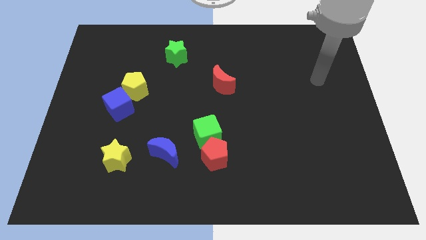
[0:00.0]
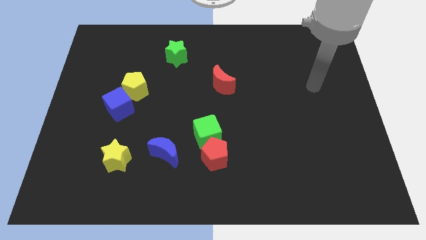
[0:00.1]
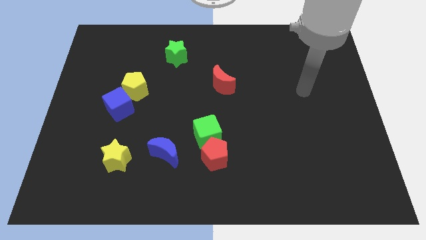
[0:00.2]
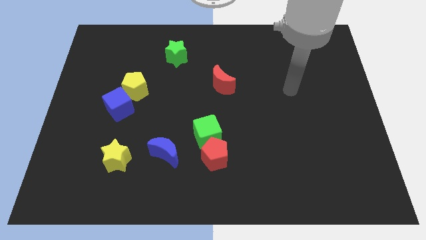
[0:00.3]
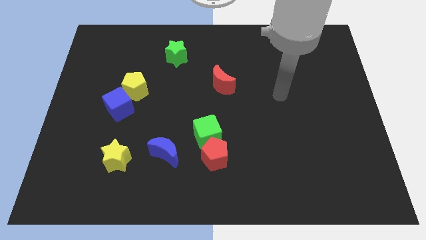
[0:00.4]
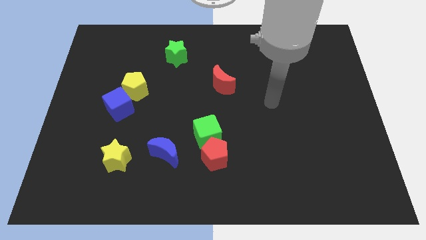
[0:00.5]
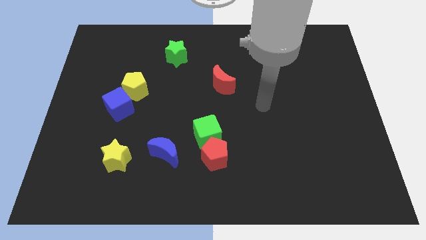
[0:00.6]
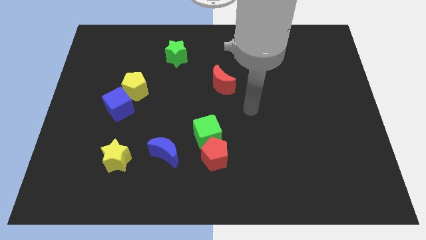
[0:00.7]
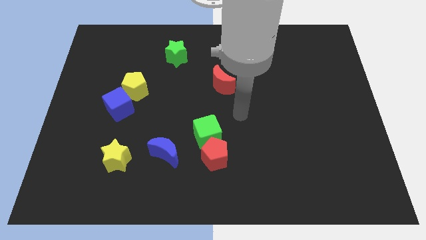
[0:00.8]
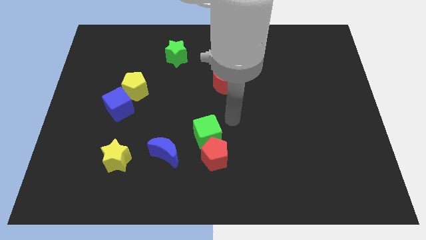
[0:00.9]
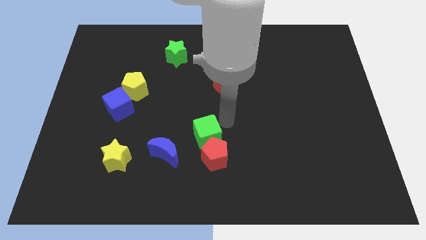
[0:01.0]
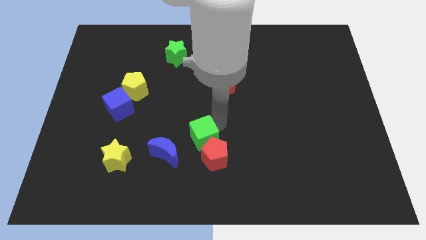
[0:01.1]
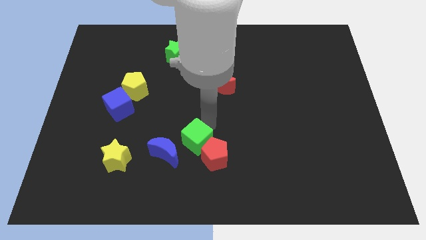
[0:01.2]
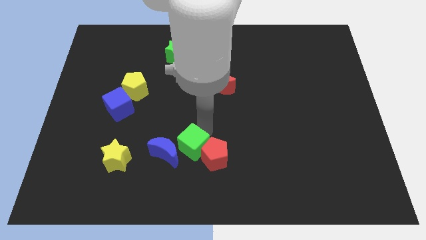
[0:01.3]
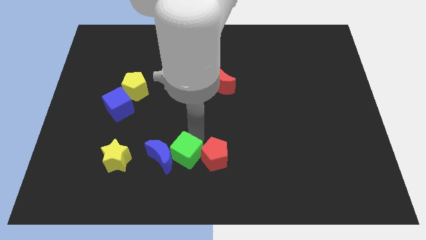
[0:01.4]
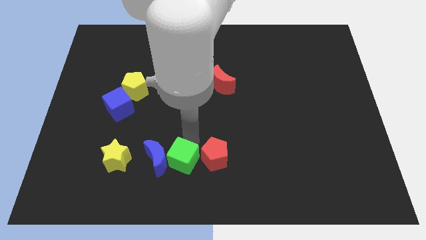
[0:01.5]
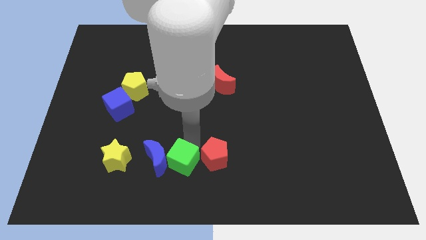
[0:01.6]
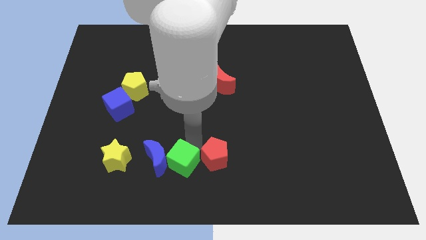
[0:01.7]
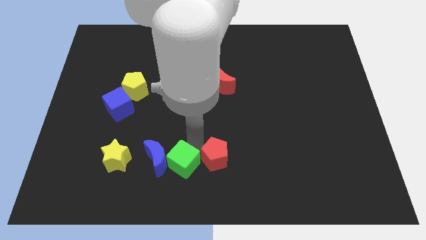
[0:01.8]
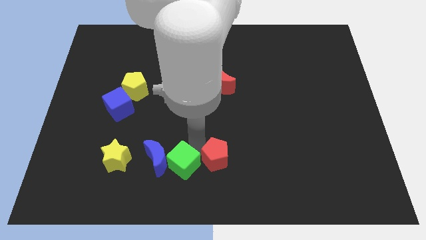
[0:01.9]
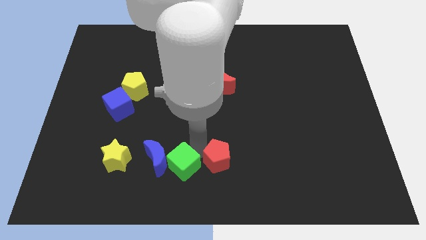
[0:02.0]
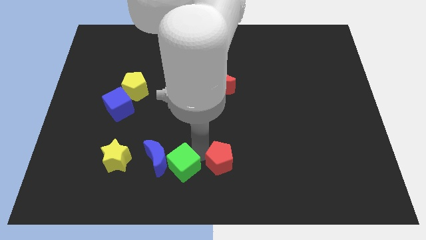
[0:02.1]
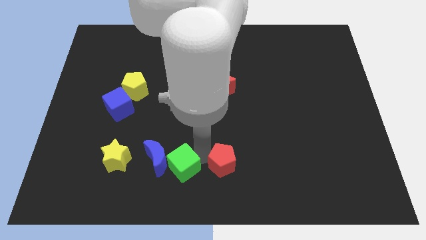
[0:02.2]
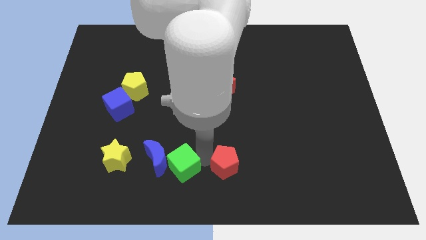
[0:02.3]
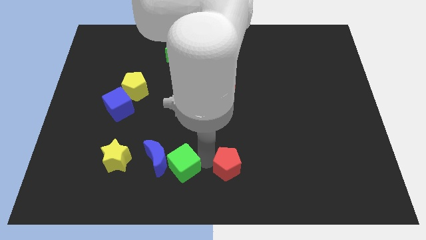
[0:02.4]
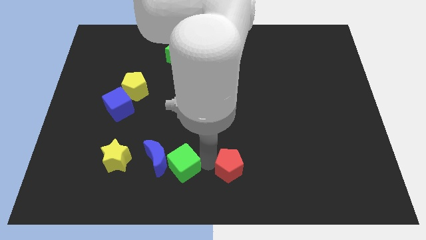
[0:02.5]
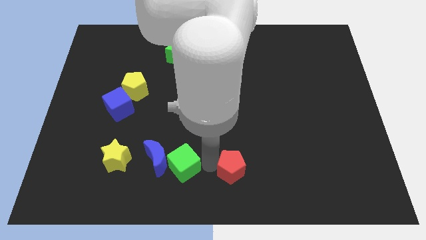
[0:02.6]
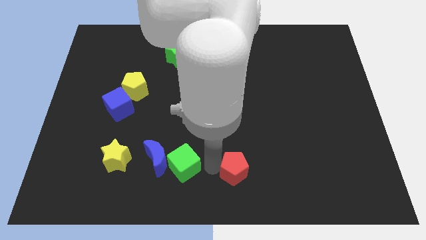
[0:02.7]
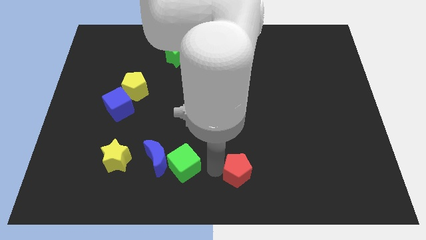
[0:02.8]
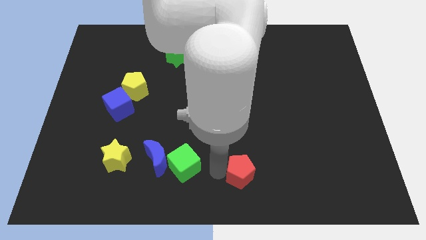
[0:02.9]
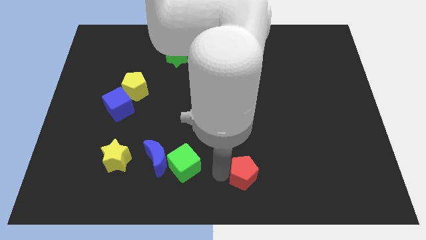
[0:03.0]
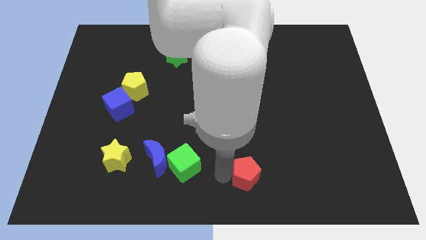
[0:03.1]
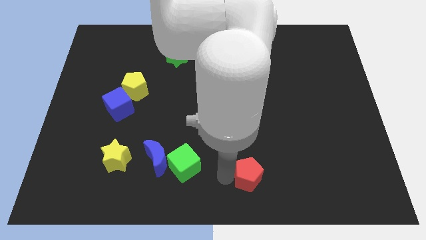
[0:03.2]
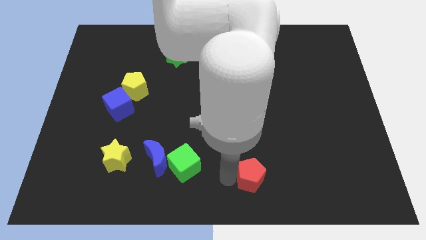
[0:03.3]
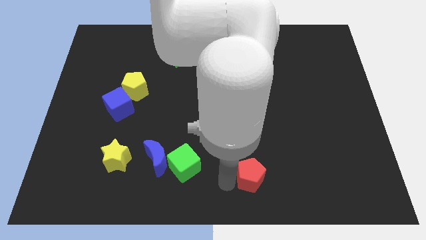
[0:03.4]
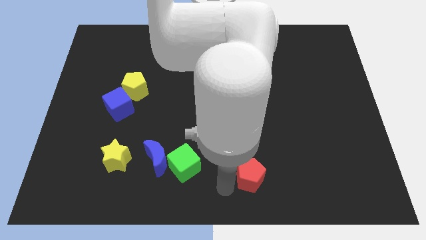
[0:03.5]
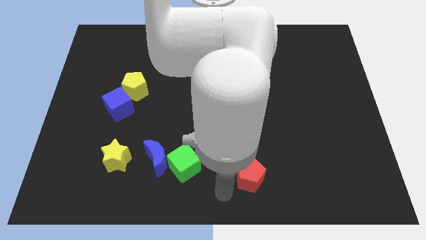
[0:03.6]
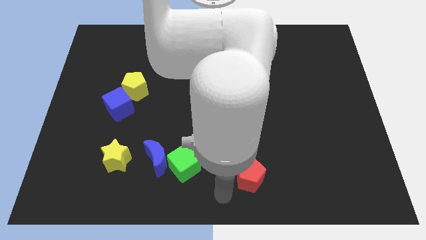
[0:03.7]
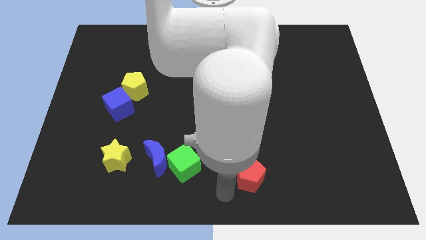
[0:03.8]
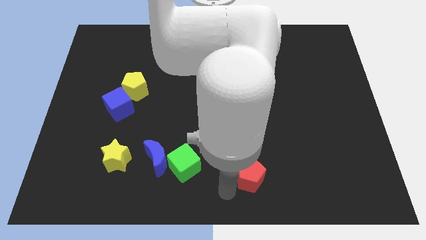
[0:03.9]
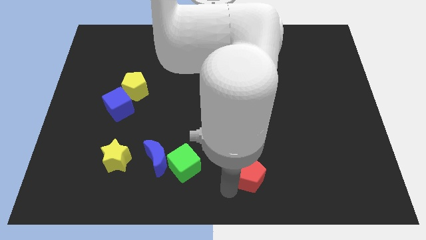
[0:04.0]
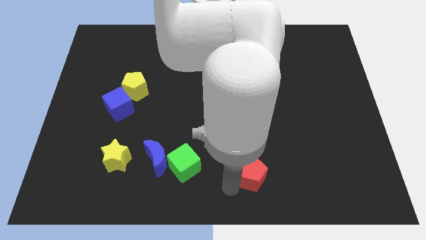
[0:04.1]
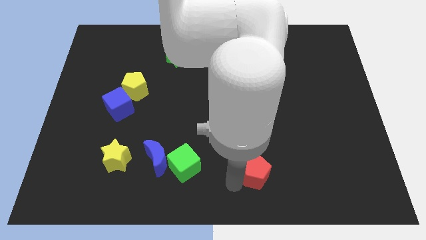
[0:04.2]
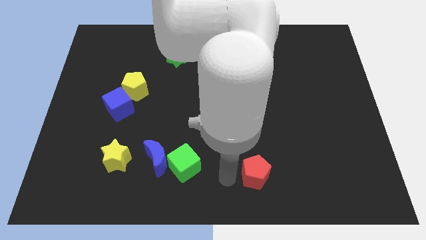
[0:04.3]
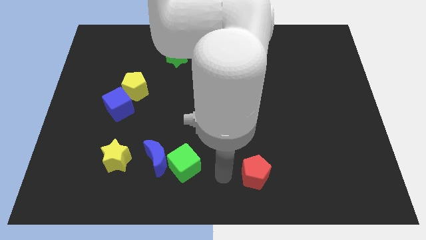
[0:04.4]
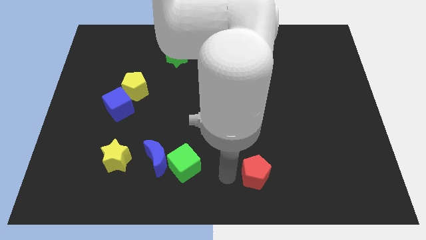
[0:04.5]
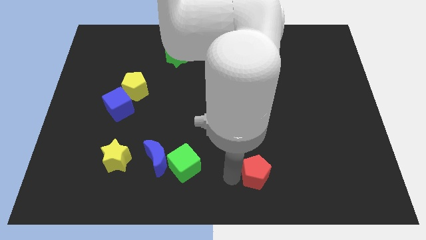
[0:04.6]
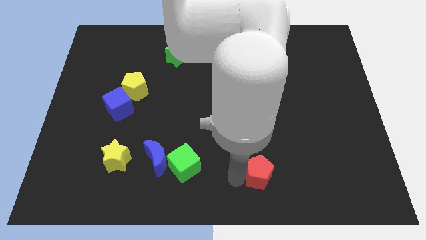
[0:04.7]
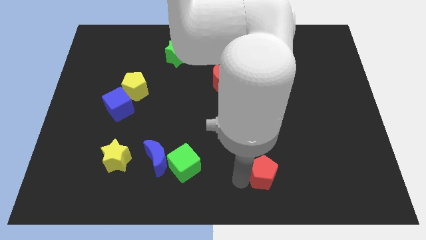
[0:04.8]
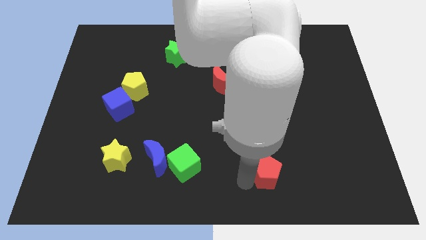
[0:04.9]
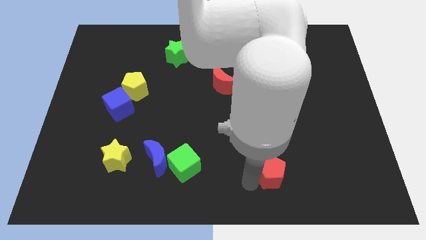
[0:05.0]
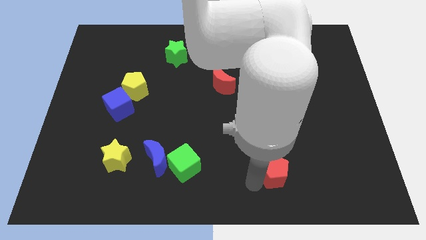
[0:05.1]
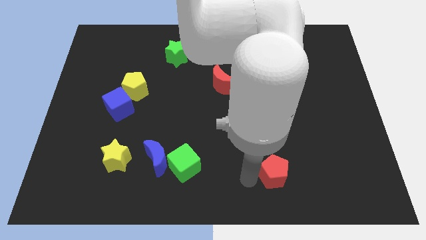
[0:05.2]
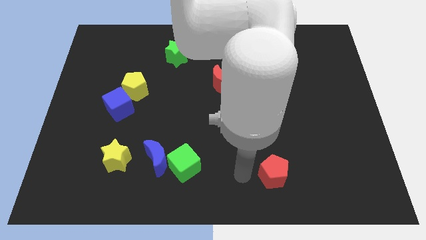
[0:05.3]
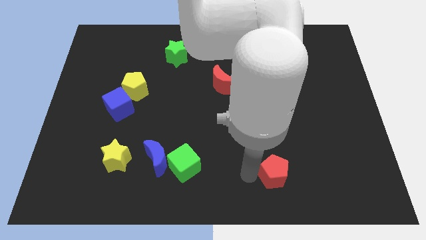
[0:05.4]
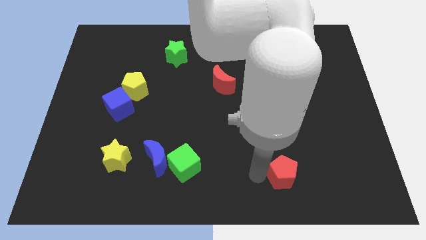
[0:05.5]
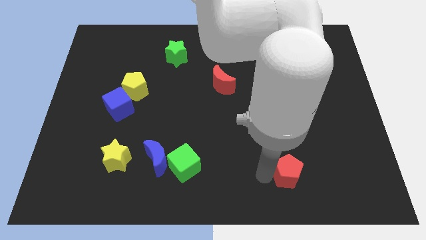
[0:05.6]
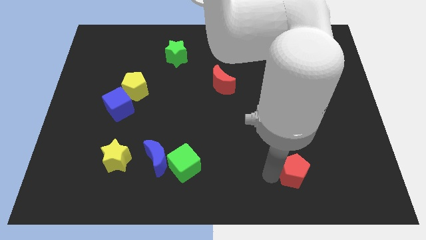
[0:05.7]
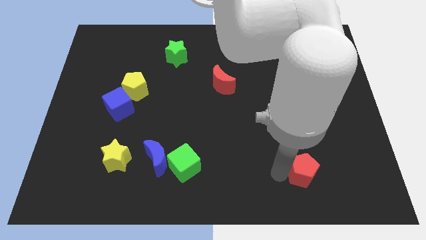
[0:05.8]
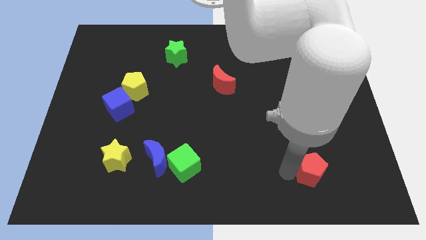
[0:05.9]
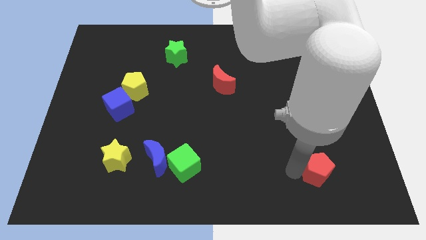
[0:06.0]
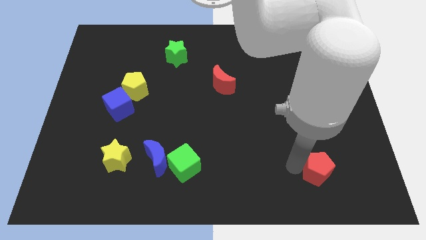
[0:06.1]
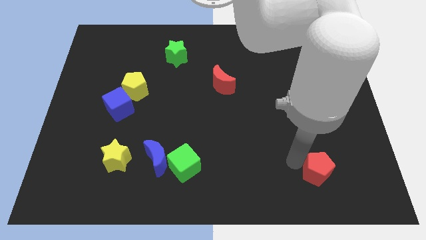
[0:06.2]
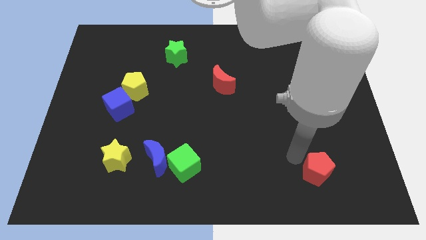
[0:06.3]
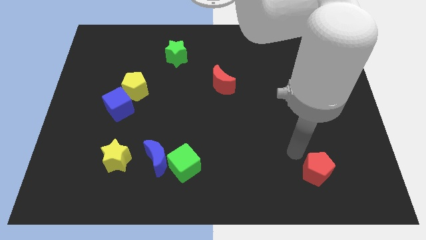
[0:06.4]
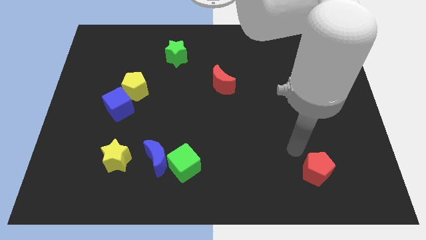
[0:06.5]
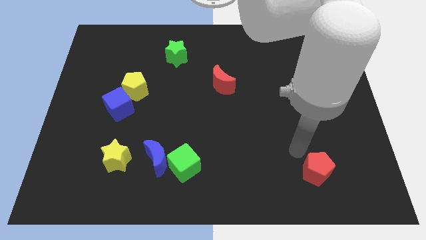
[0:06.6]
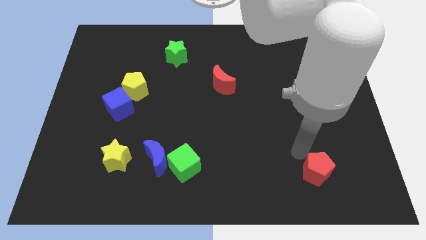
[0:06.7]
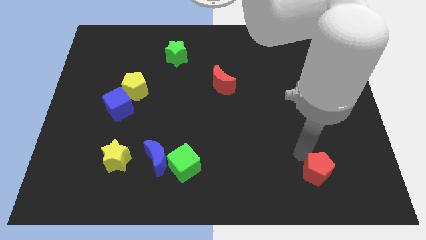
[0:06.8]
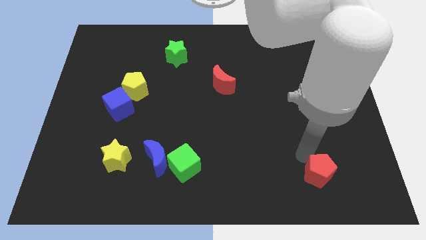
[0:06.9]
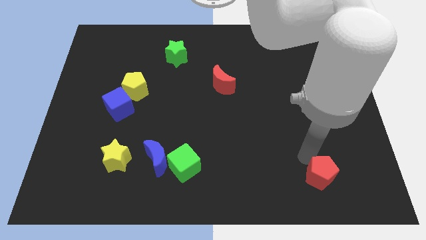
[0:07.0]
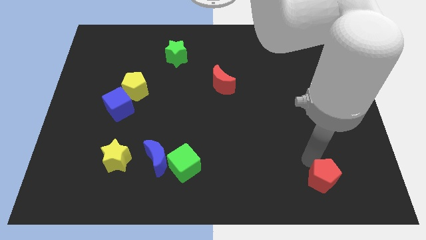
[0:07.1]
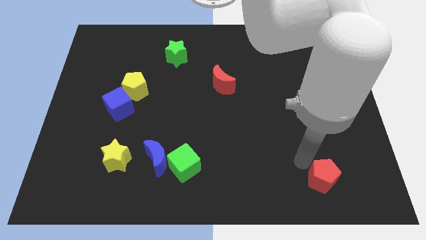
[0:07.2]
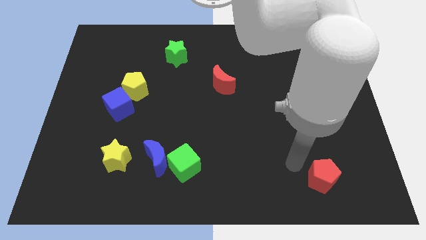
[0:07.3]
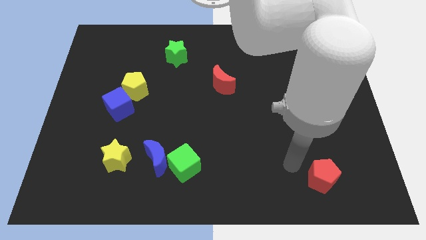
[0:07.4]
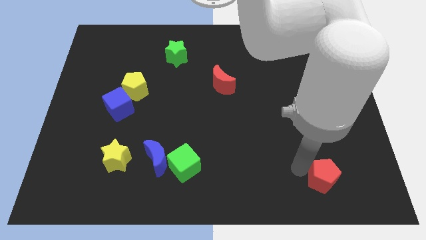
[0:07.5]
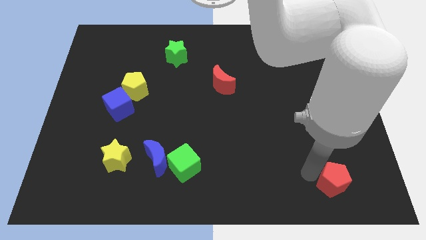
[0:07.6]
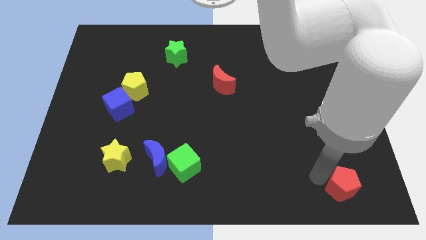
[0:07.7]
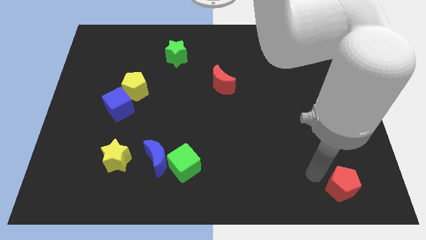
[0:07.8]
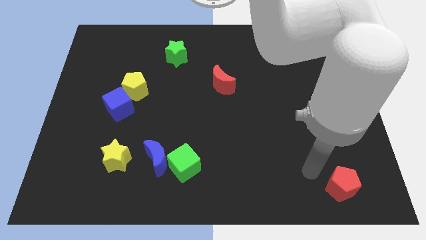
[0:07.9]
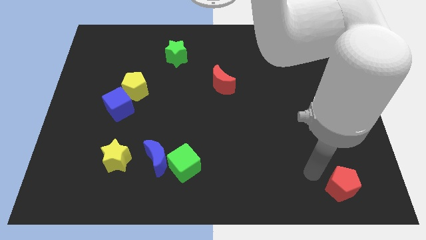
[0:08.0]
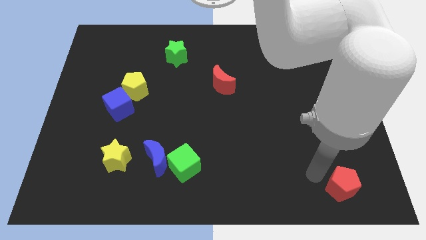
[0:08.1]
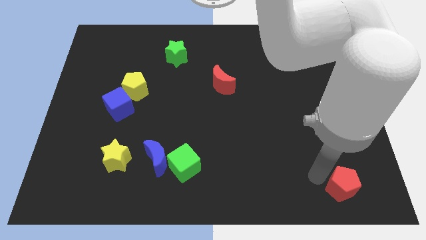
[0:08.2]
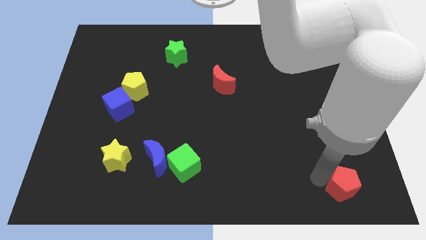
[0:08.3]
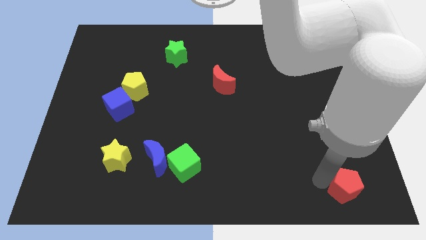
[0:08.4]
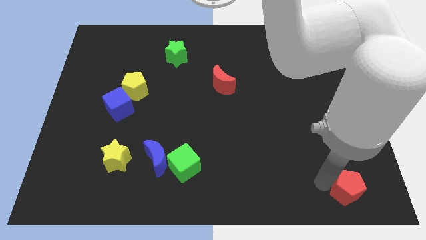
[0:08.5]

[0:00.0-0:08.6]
put the red pentagon to the lower right corner
